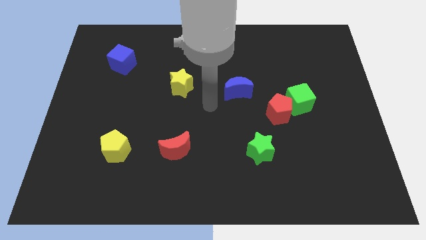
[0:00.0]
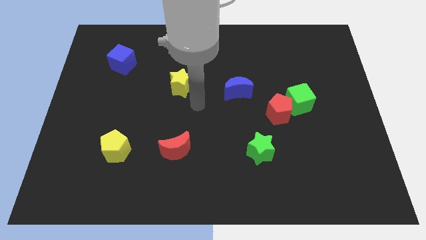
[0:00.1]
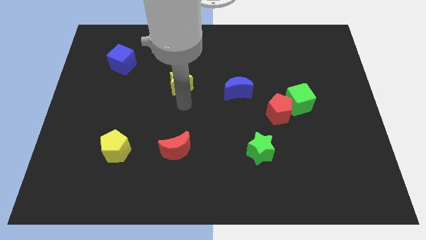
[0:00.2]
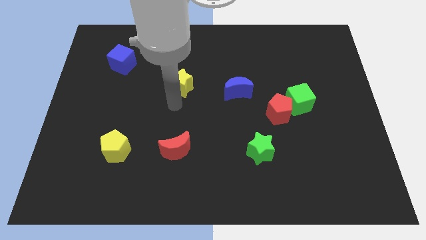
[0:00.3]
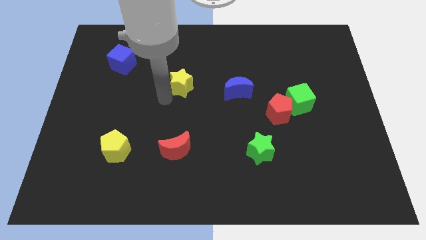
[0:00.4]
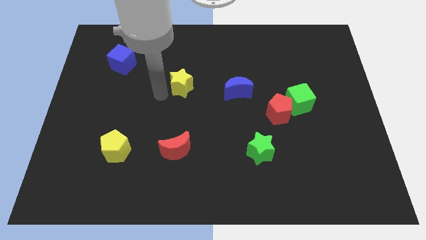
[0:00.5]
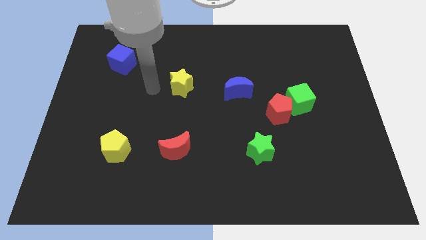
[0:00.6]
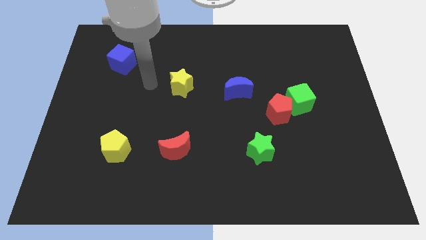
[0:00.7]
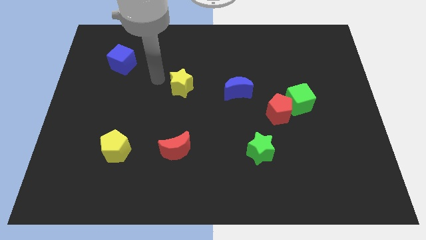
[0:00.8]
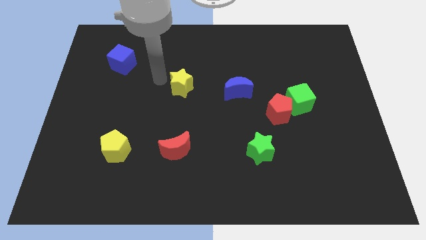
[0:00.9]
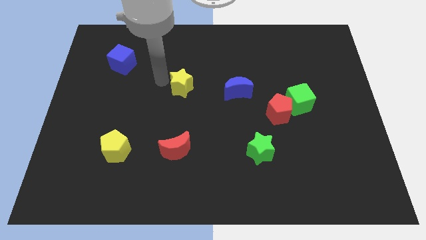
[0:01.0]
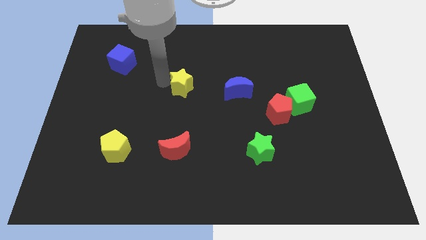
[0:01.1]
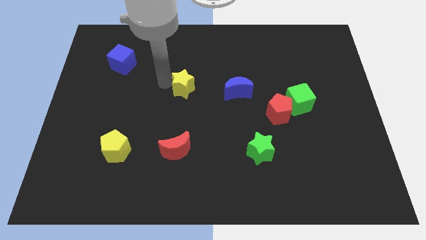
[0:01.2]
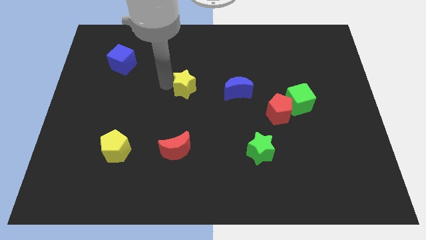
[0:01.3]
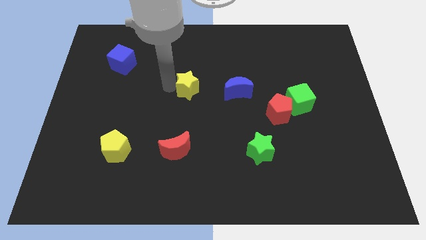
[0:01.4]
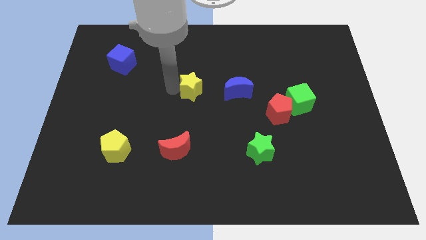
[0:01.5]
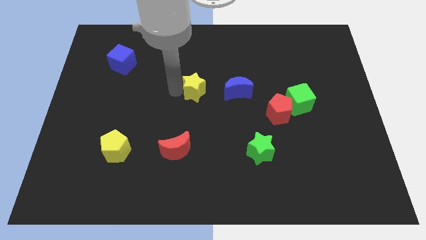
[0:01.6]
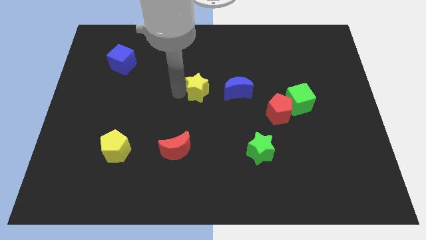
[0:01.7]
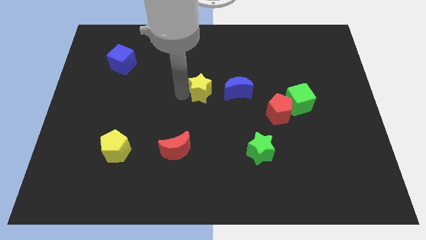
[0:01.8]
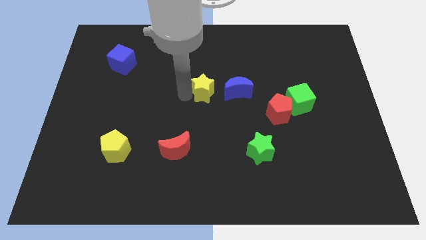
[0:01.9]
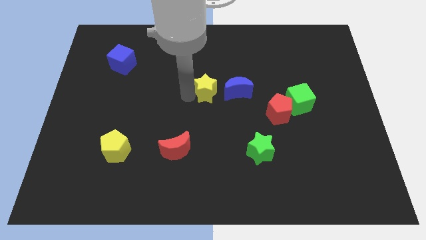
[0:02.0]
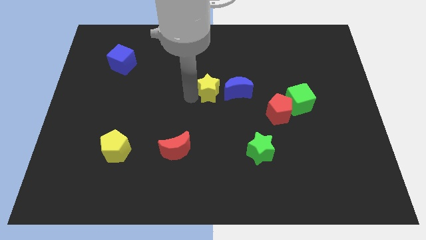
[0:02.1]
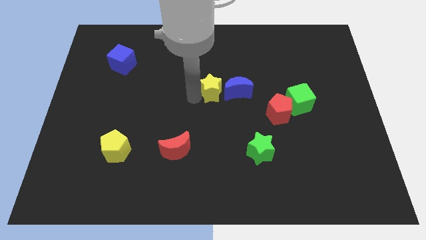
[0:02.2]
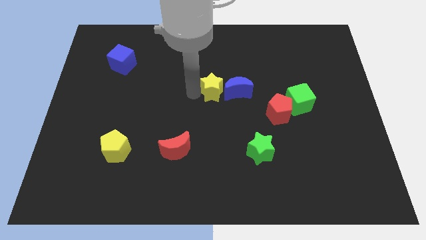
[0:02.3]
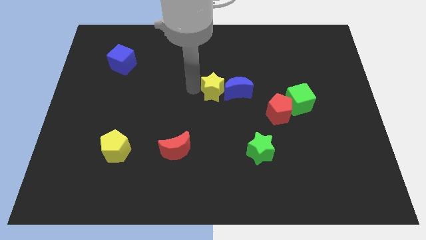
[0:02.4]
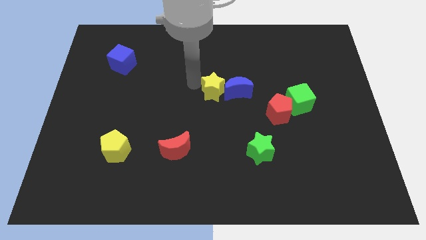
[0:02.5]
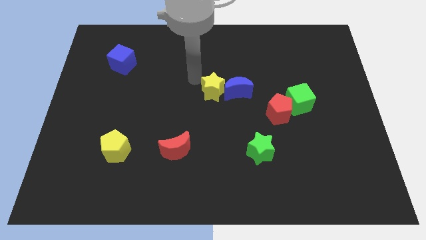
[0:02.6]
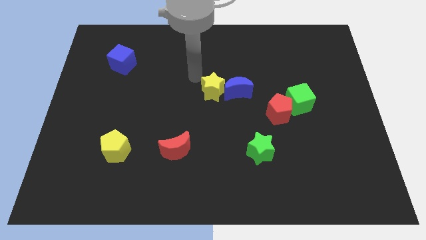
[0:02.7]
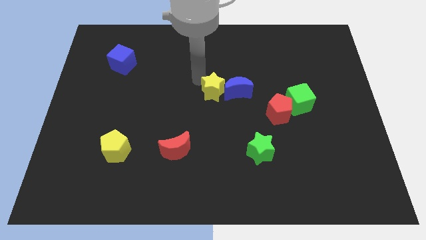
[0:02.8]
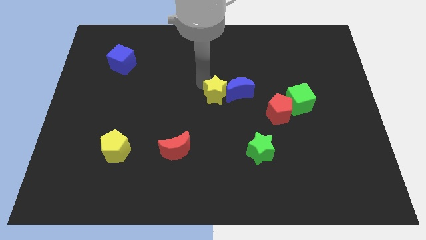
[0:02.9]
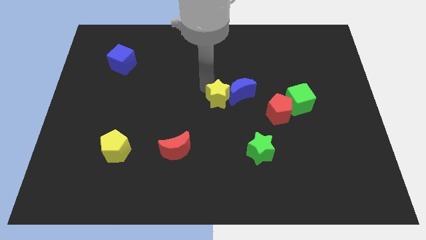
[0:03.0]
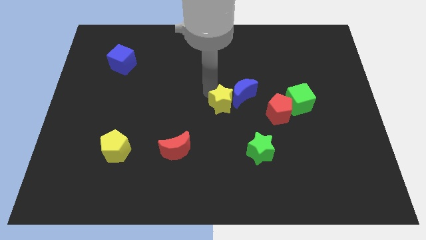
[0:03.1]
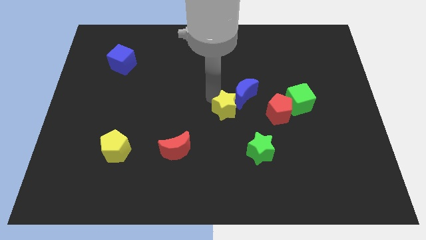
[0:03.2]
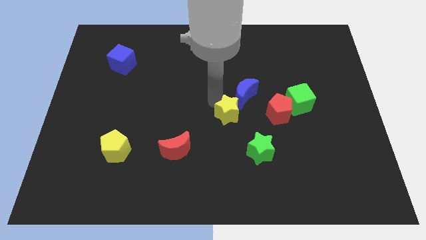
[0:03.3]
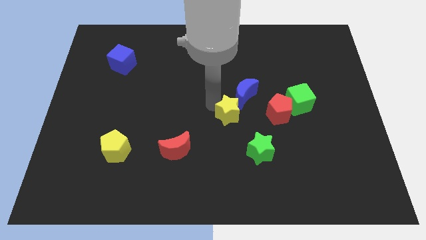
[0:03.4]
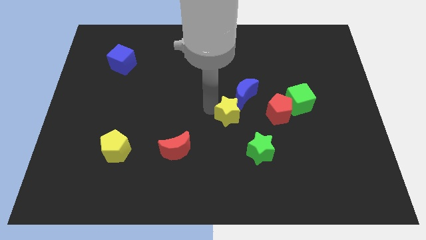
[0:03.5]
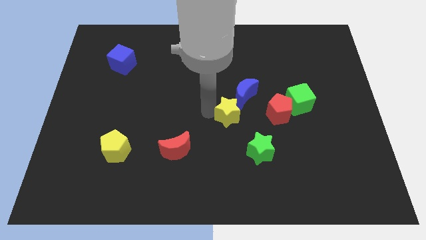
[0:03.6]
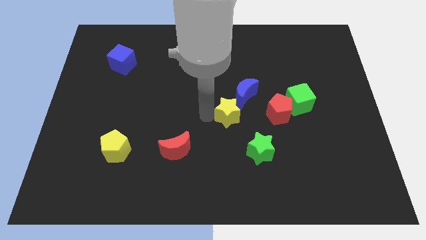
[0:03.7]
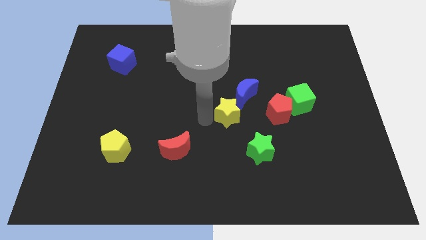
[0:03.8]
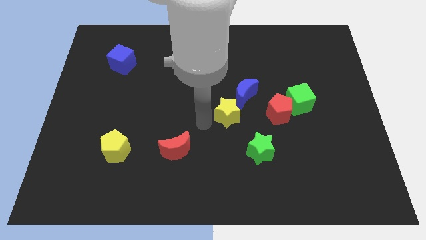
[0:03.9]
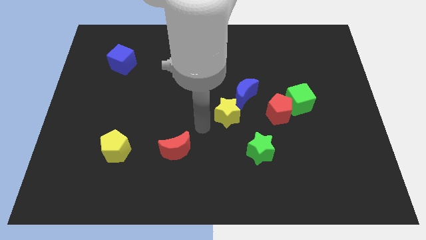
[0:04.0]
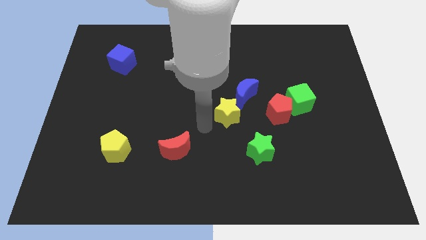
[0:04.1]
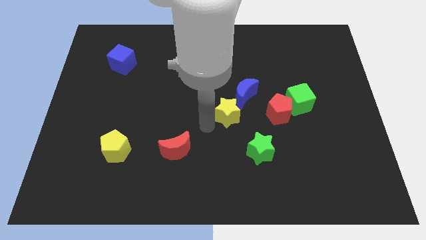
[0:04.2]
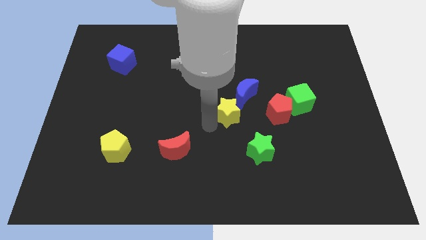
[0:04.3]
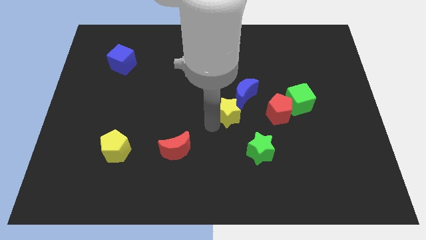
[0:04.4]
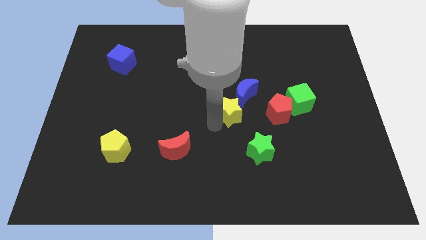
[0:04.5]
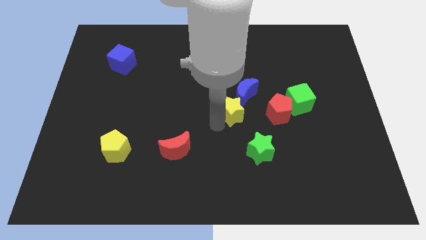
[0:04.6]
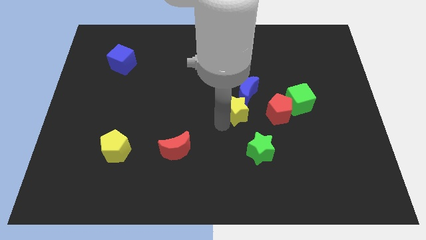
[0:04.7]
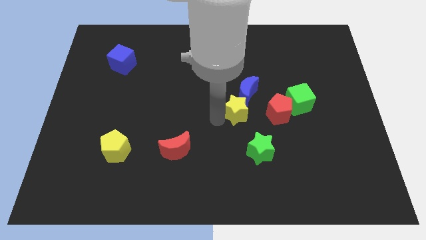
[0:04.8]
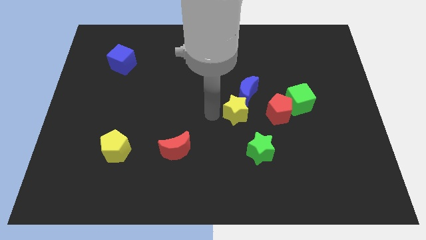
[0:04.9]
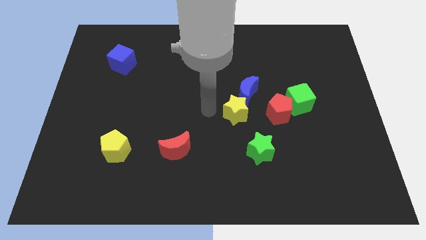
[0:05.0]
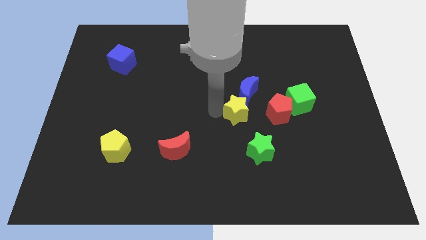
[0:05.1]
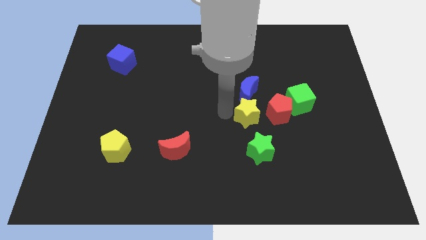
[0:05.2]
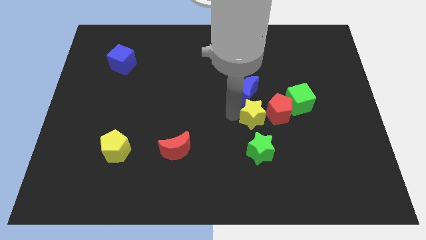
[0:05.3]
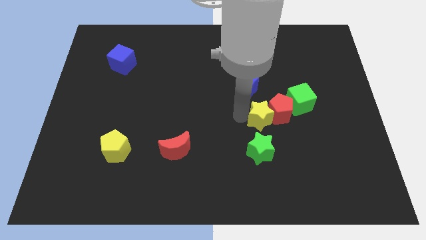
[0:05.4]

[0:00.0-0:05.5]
slide the yellow star to the bottom left side of the green cube

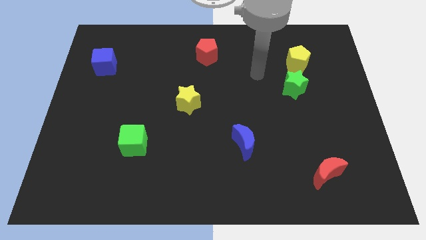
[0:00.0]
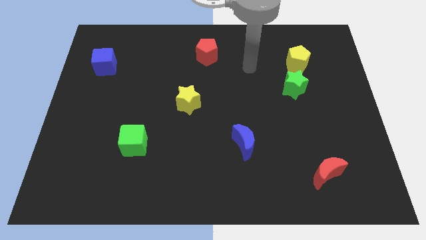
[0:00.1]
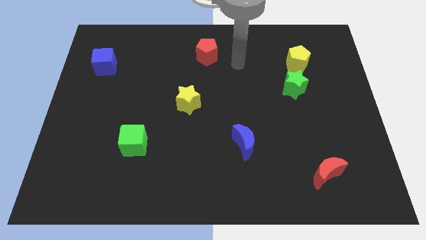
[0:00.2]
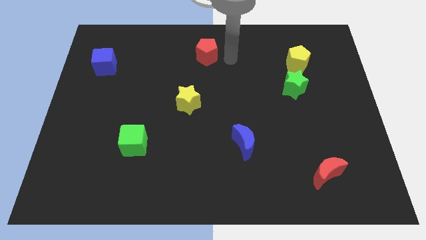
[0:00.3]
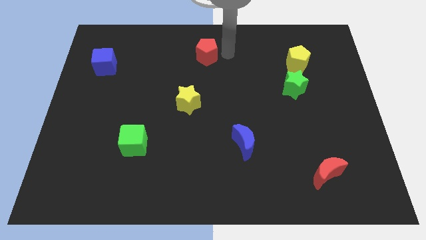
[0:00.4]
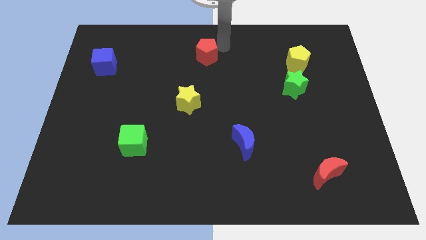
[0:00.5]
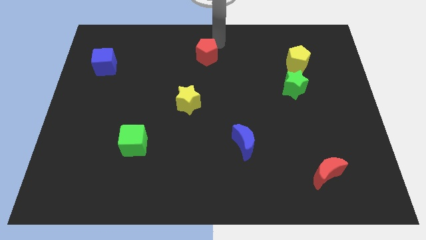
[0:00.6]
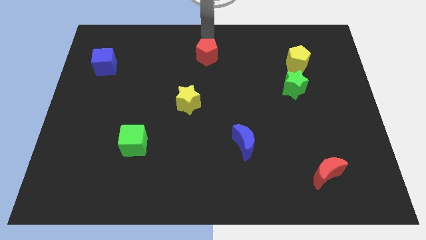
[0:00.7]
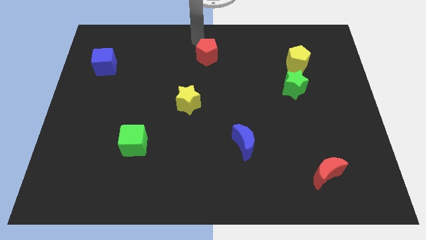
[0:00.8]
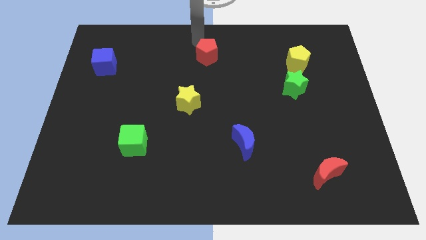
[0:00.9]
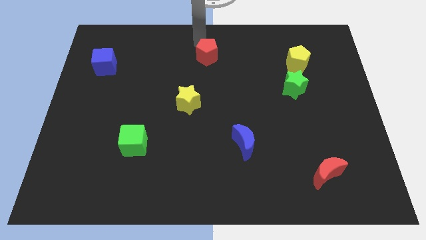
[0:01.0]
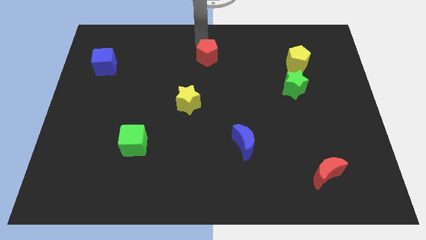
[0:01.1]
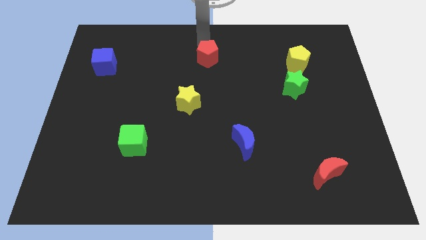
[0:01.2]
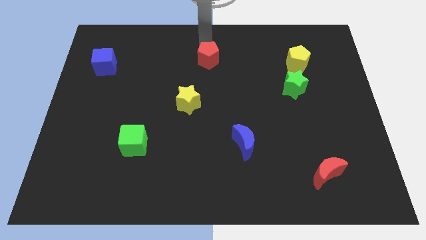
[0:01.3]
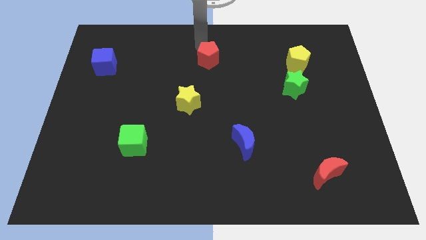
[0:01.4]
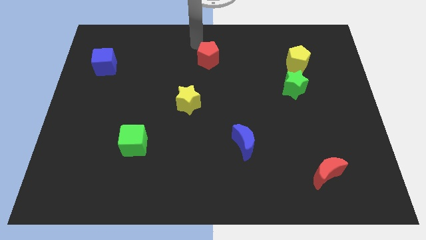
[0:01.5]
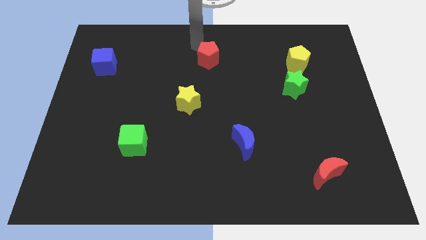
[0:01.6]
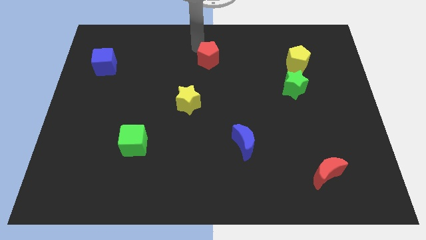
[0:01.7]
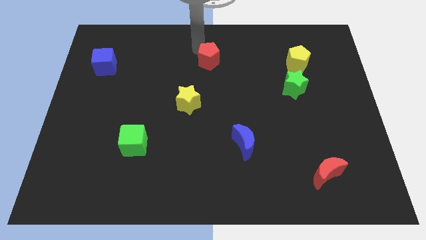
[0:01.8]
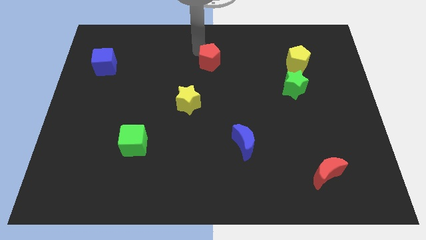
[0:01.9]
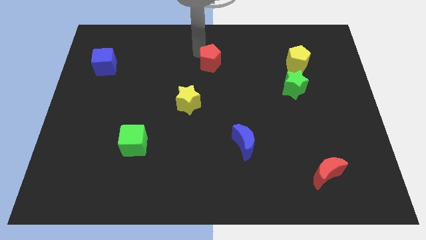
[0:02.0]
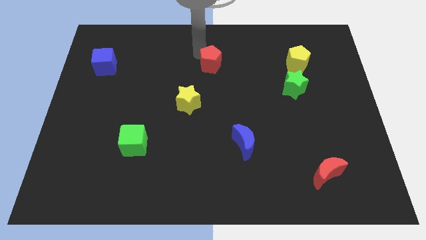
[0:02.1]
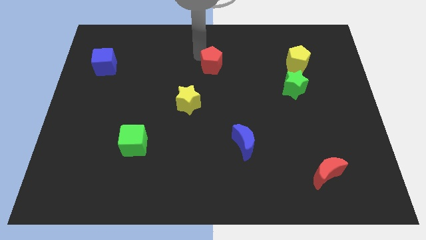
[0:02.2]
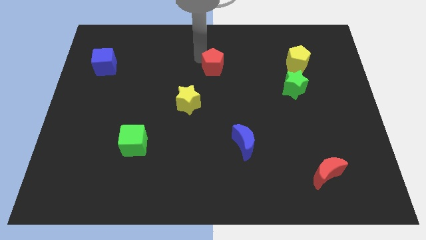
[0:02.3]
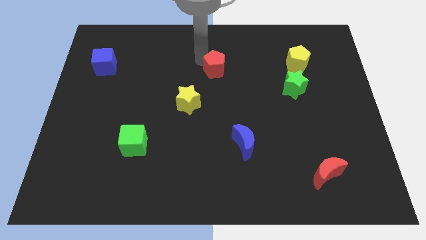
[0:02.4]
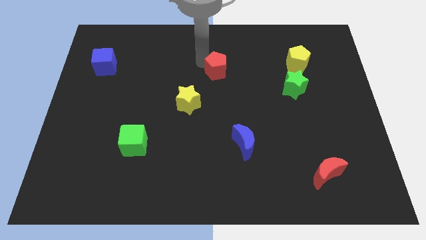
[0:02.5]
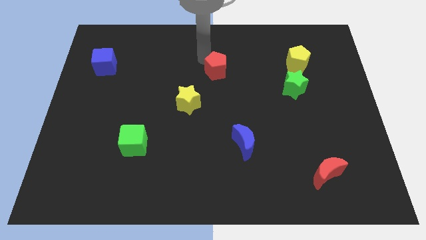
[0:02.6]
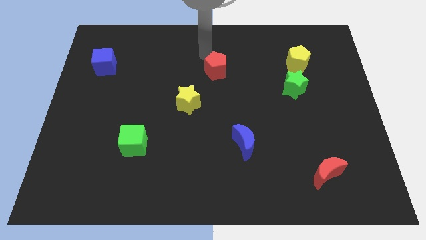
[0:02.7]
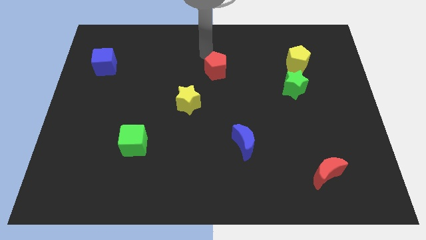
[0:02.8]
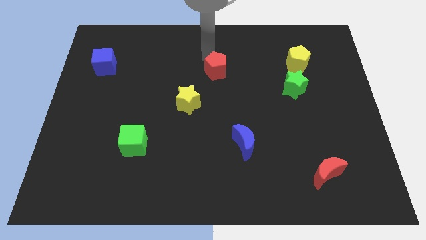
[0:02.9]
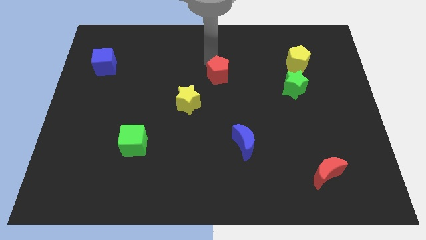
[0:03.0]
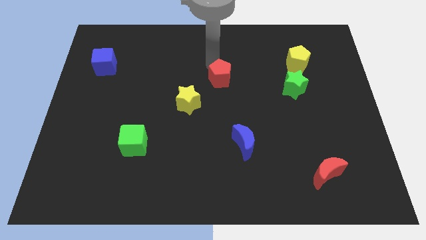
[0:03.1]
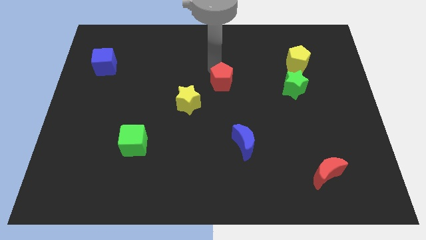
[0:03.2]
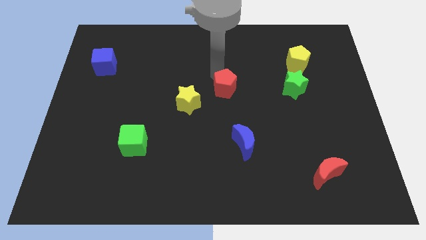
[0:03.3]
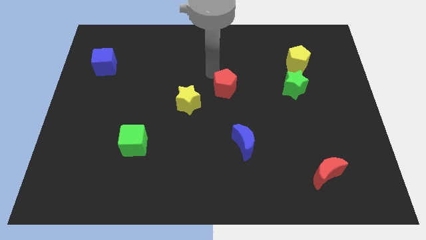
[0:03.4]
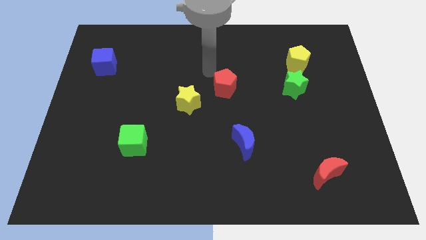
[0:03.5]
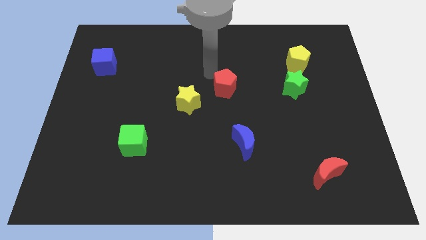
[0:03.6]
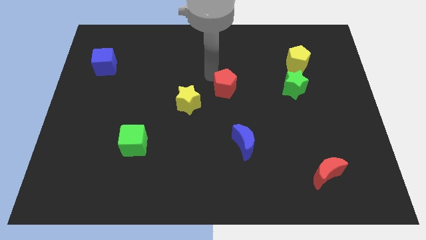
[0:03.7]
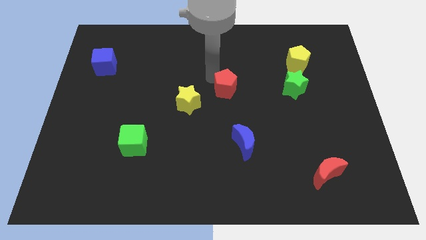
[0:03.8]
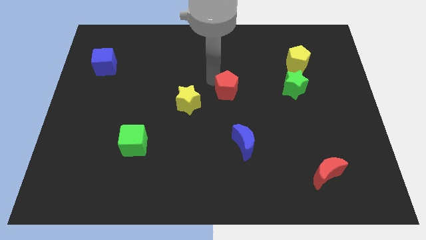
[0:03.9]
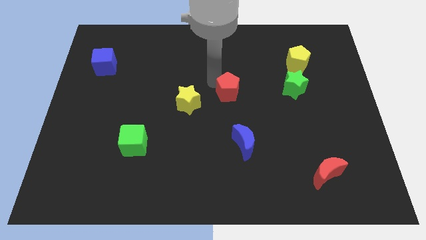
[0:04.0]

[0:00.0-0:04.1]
push the red pentagon above the blue moon
